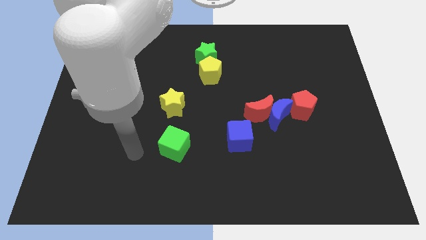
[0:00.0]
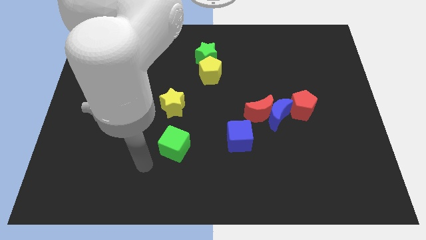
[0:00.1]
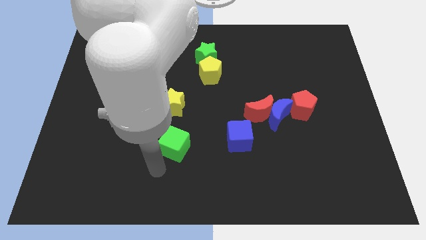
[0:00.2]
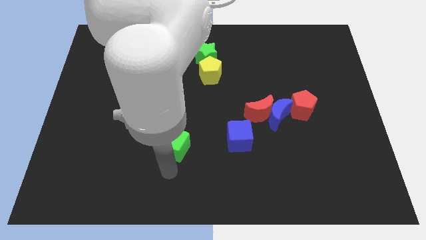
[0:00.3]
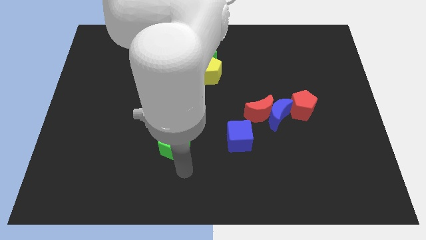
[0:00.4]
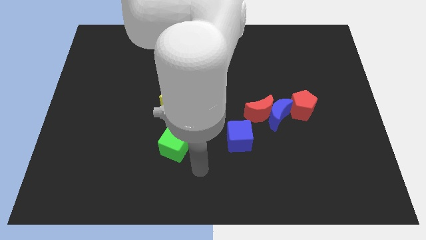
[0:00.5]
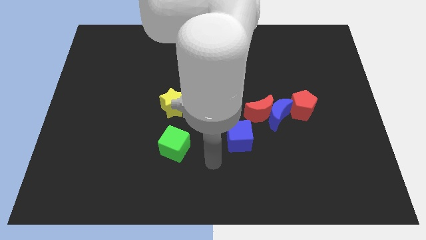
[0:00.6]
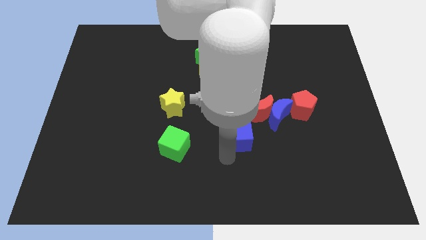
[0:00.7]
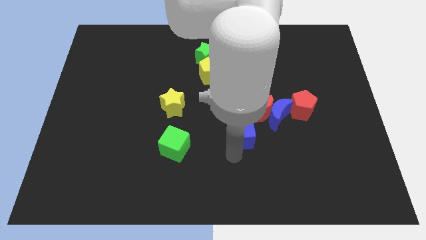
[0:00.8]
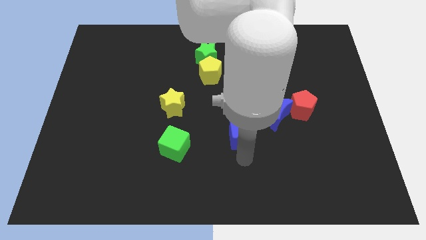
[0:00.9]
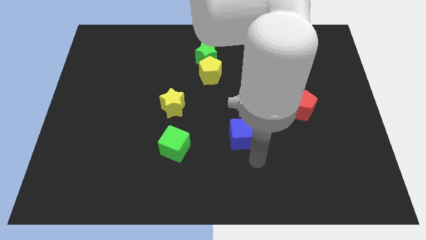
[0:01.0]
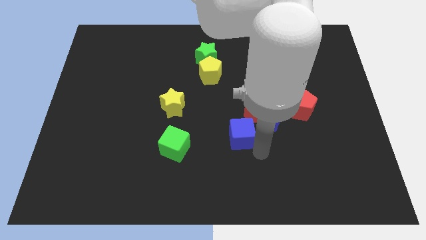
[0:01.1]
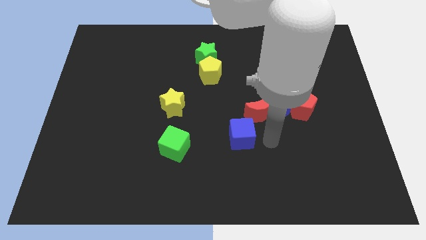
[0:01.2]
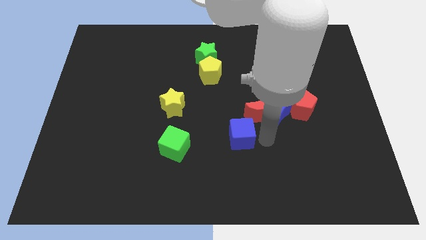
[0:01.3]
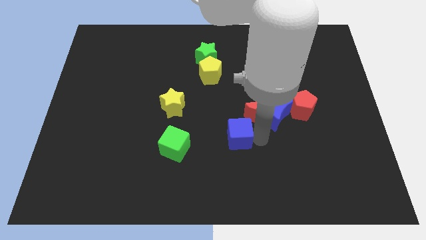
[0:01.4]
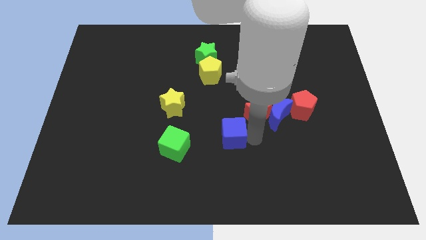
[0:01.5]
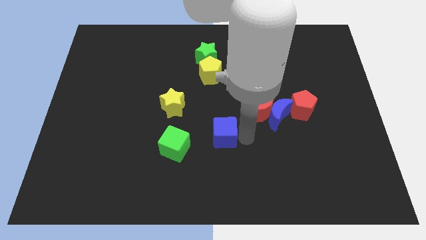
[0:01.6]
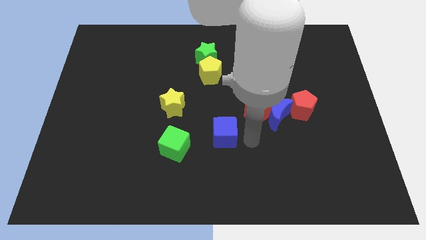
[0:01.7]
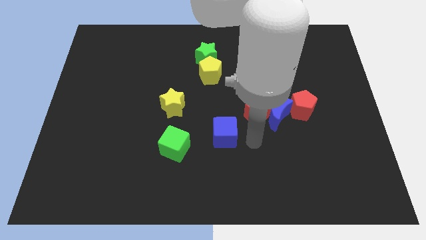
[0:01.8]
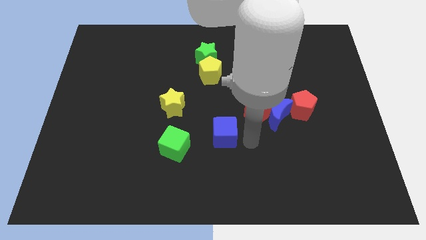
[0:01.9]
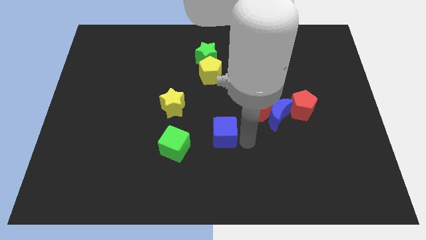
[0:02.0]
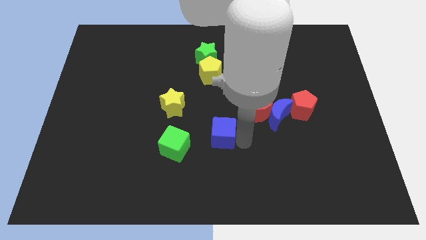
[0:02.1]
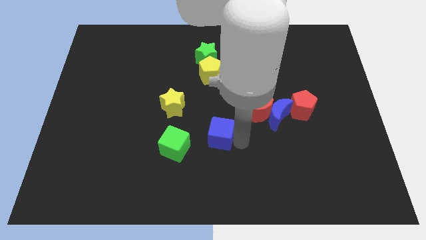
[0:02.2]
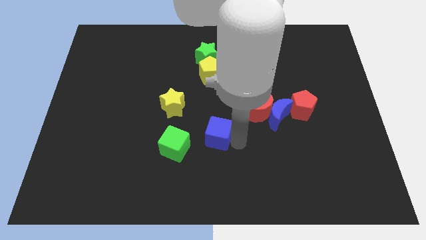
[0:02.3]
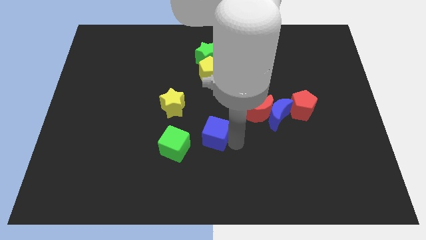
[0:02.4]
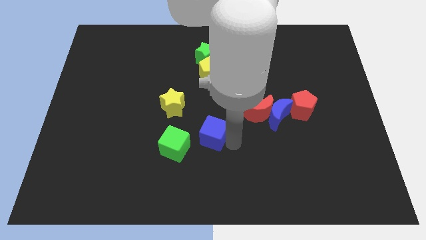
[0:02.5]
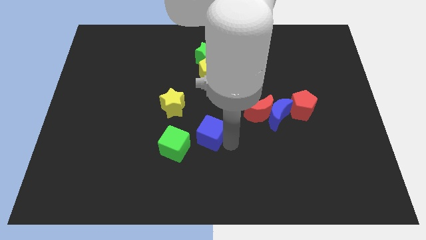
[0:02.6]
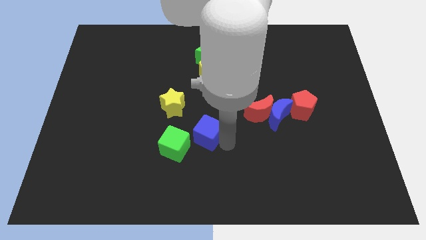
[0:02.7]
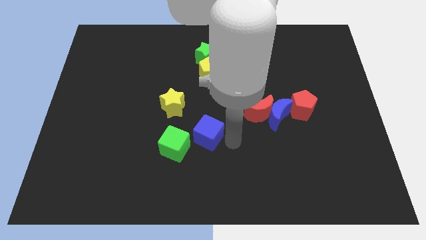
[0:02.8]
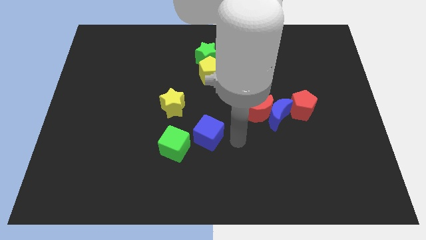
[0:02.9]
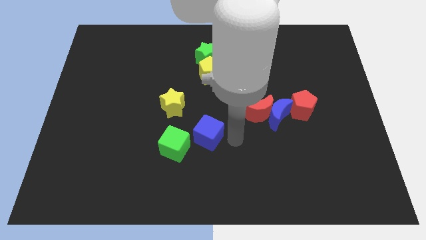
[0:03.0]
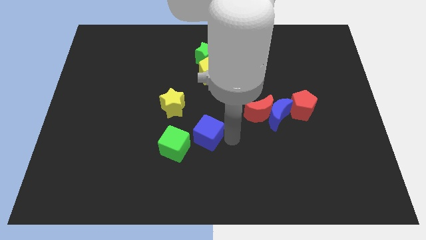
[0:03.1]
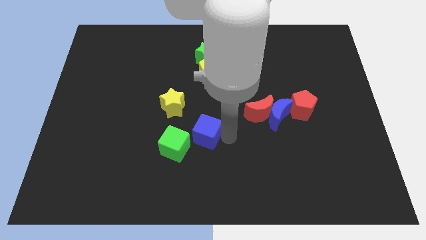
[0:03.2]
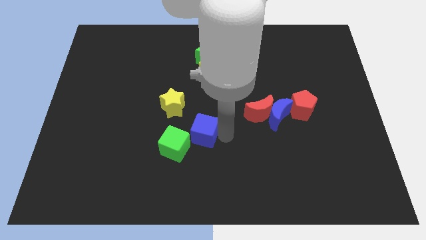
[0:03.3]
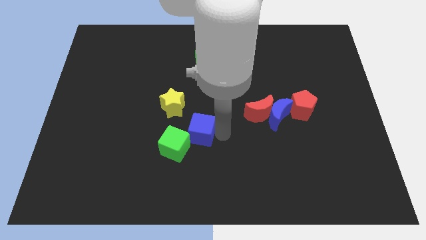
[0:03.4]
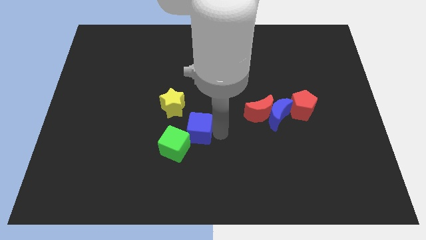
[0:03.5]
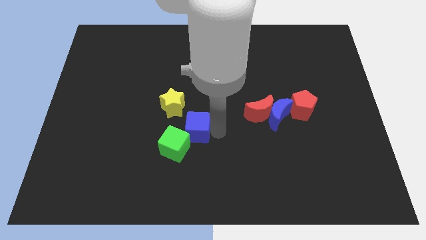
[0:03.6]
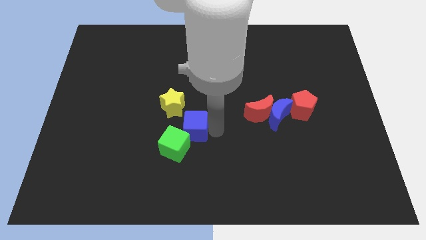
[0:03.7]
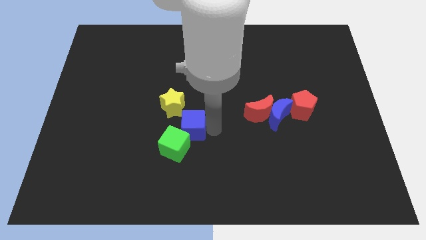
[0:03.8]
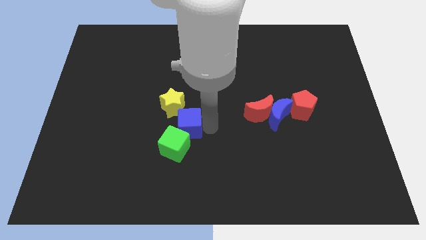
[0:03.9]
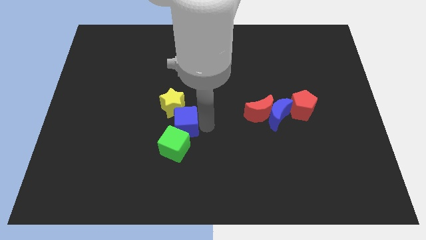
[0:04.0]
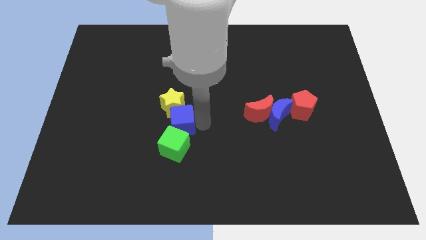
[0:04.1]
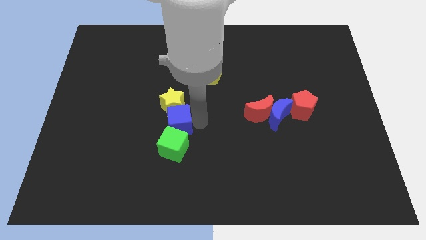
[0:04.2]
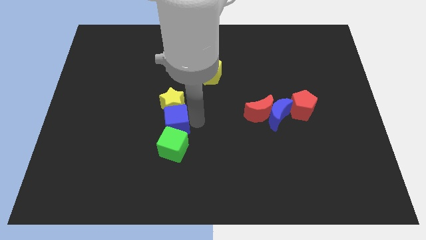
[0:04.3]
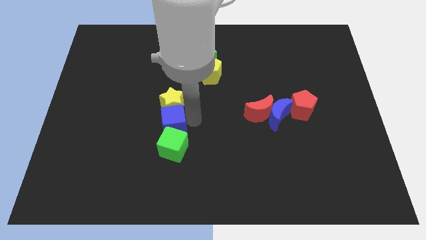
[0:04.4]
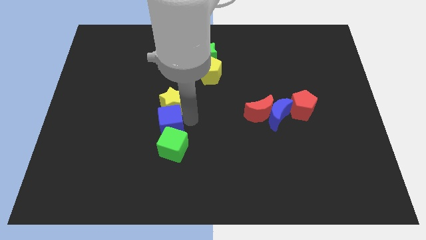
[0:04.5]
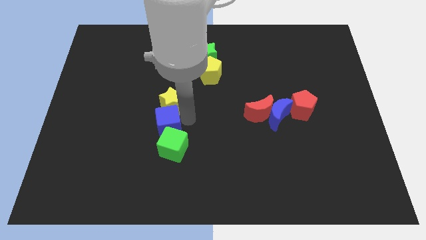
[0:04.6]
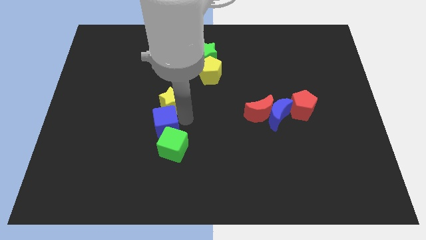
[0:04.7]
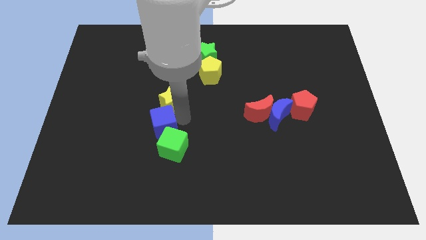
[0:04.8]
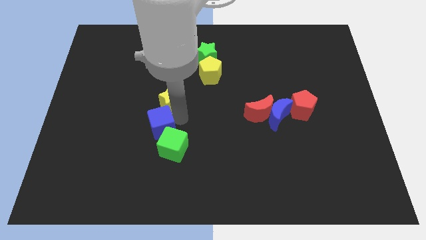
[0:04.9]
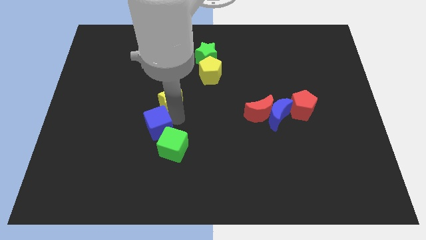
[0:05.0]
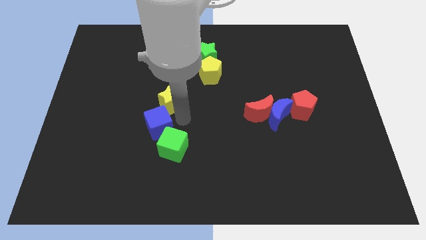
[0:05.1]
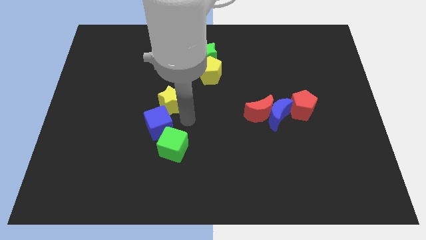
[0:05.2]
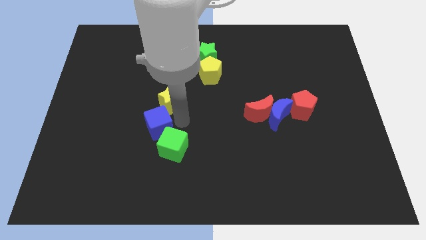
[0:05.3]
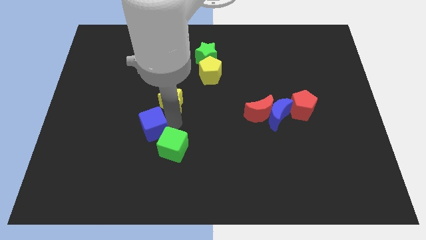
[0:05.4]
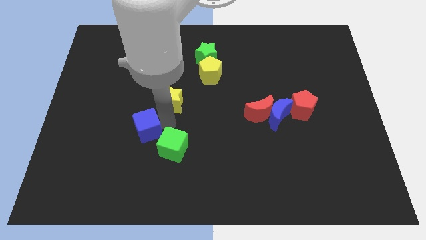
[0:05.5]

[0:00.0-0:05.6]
slide the blue cube left

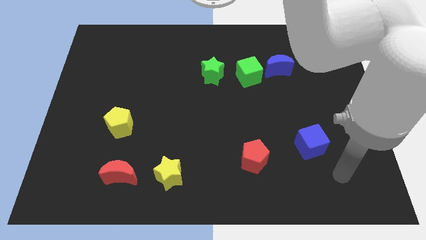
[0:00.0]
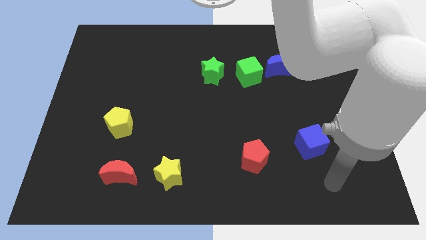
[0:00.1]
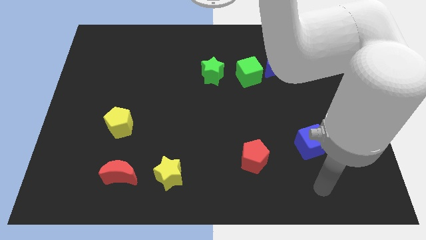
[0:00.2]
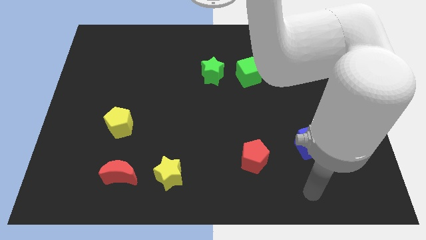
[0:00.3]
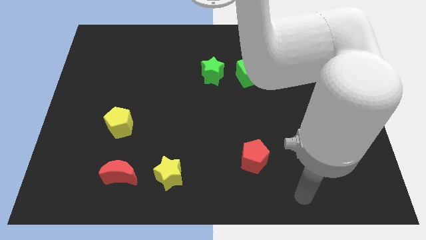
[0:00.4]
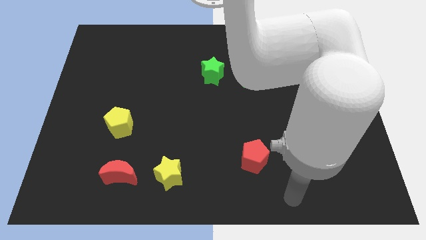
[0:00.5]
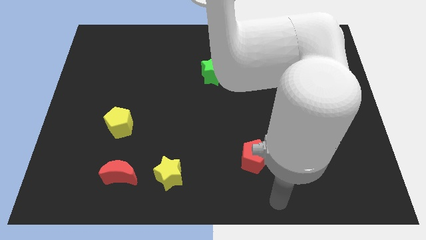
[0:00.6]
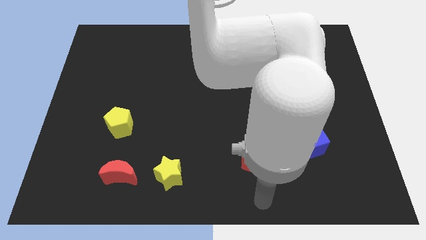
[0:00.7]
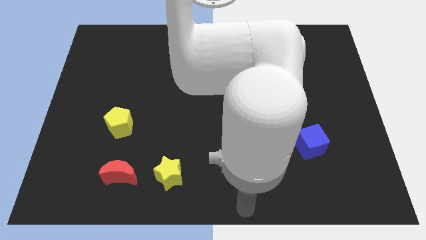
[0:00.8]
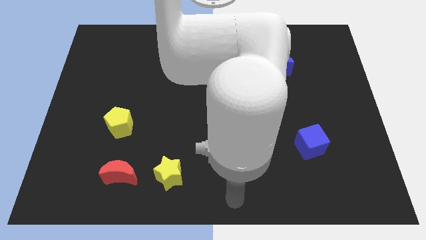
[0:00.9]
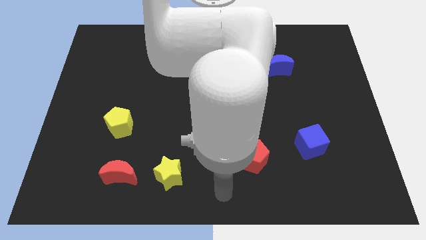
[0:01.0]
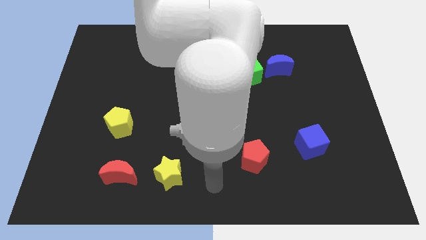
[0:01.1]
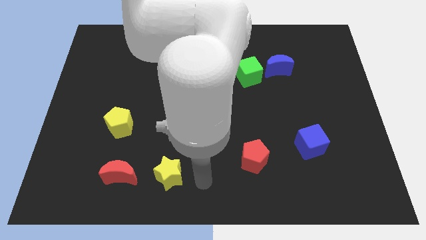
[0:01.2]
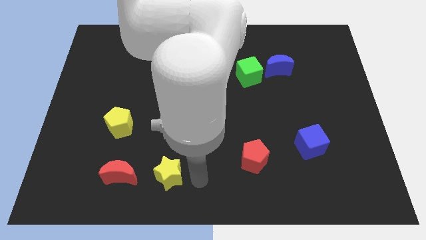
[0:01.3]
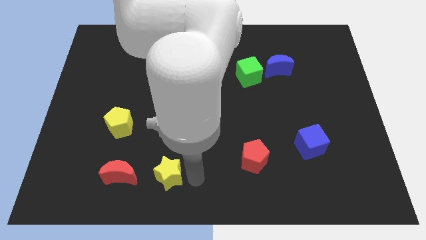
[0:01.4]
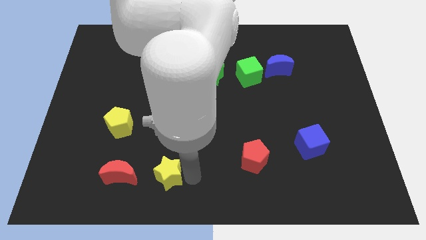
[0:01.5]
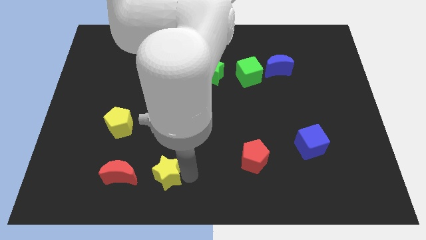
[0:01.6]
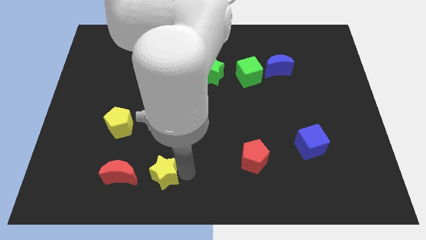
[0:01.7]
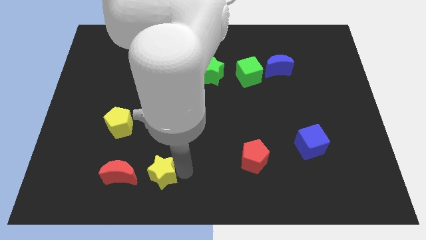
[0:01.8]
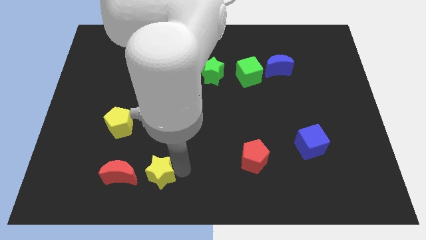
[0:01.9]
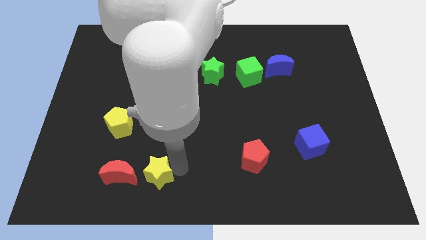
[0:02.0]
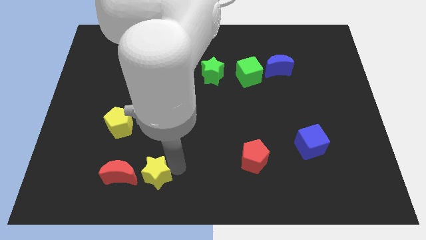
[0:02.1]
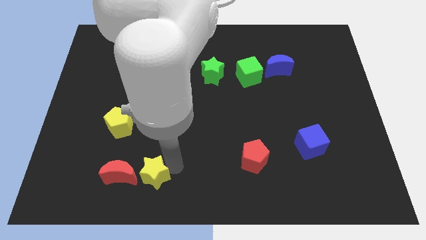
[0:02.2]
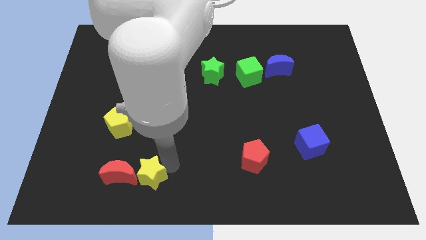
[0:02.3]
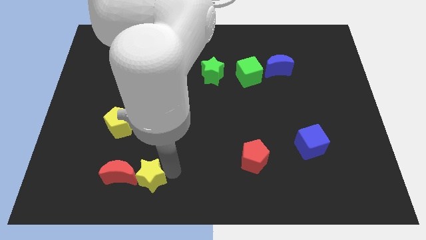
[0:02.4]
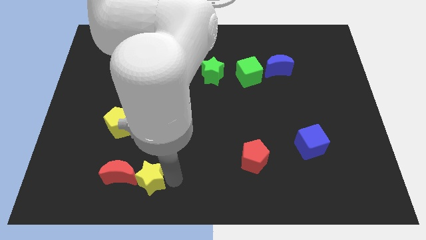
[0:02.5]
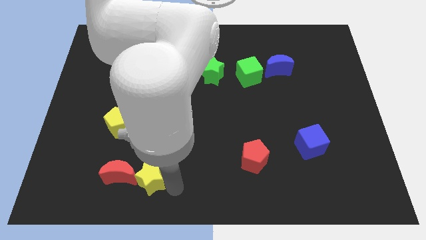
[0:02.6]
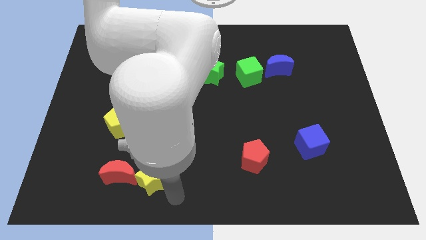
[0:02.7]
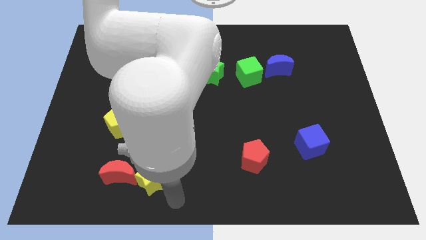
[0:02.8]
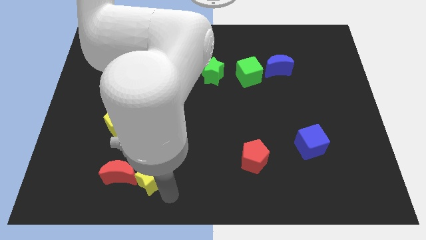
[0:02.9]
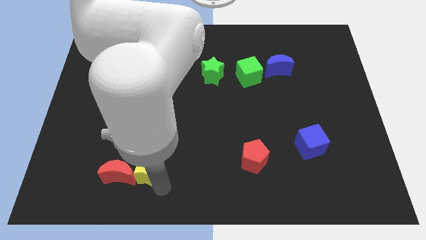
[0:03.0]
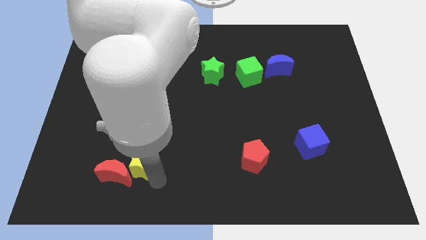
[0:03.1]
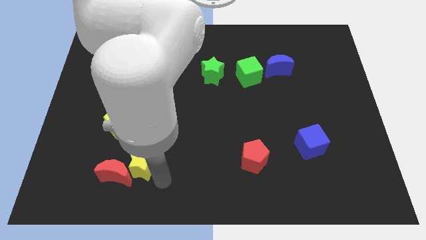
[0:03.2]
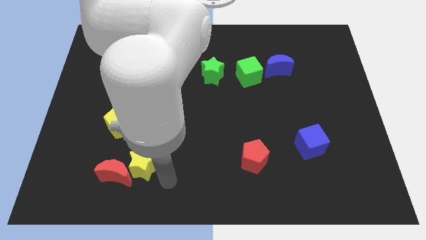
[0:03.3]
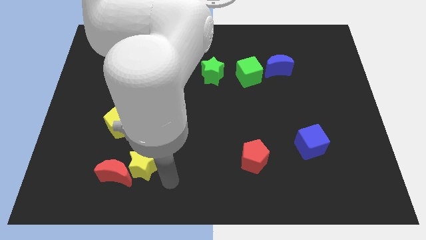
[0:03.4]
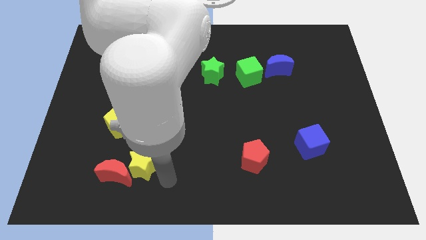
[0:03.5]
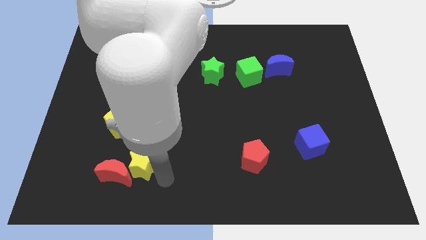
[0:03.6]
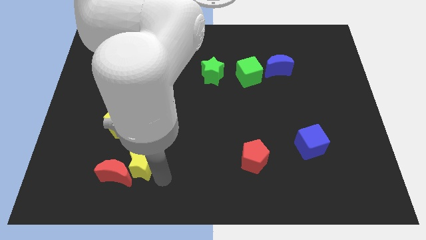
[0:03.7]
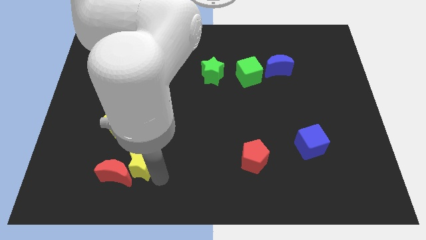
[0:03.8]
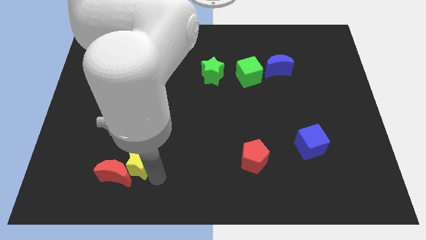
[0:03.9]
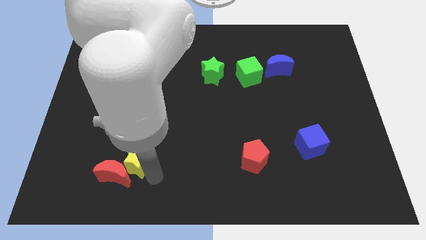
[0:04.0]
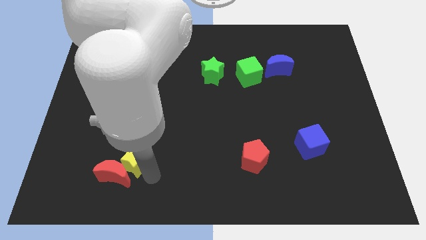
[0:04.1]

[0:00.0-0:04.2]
slightly slide the yellow star left
